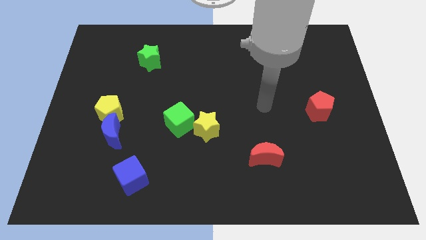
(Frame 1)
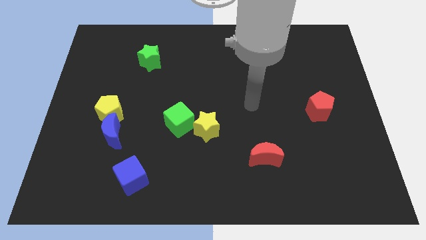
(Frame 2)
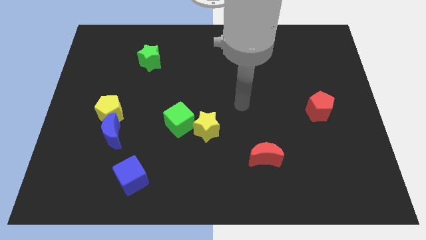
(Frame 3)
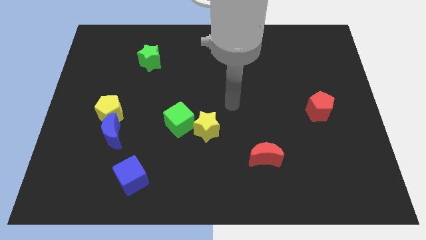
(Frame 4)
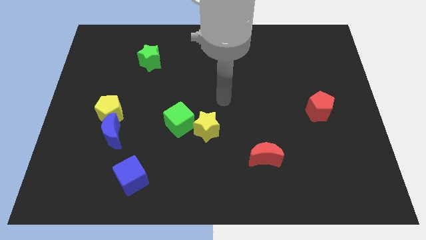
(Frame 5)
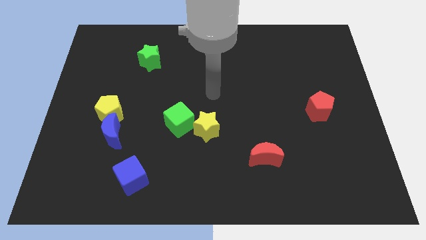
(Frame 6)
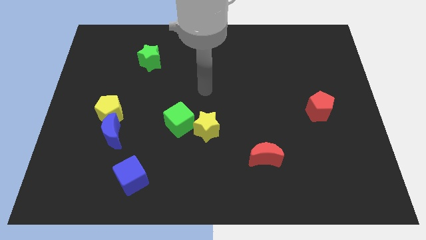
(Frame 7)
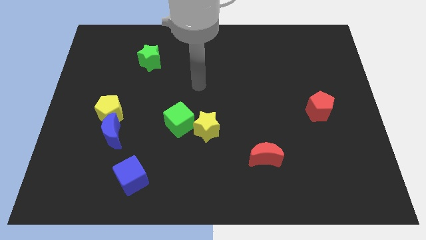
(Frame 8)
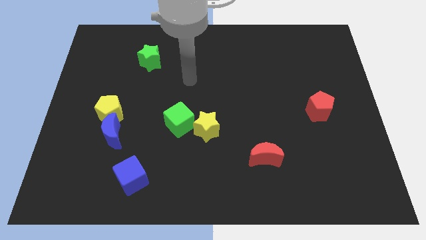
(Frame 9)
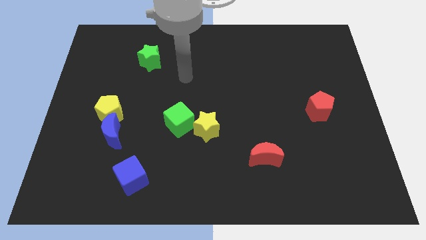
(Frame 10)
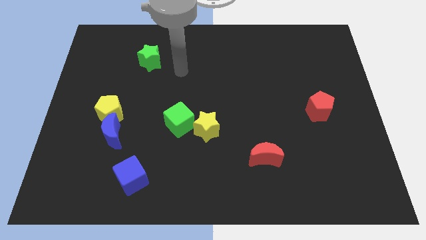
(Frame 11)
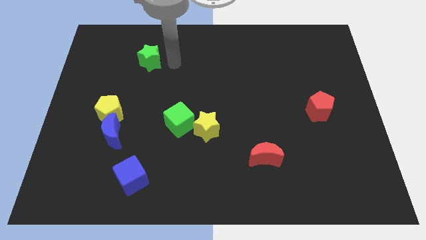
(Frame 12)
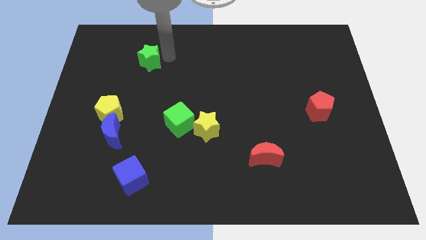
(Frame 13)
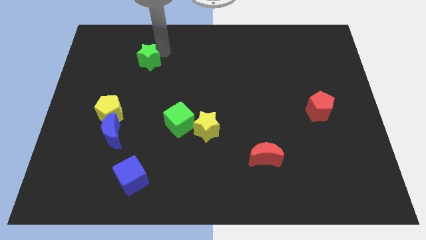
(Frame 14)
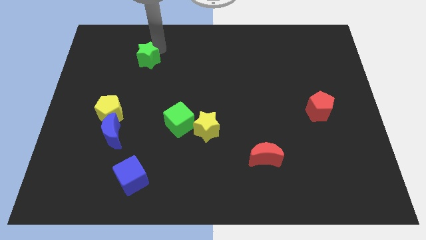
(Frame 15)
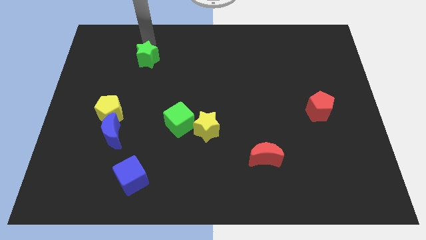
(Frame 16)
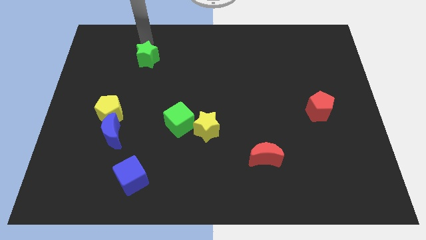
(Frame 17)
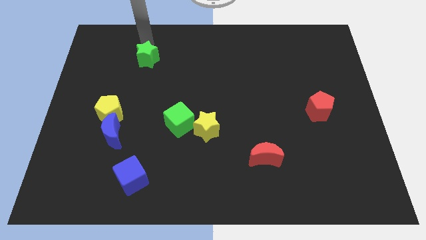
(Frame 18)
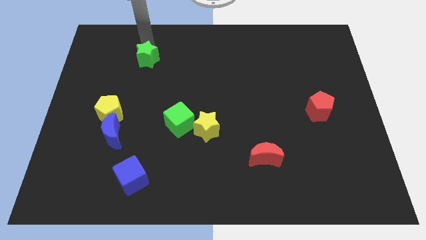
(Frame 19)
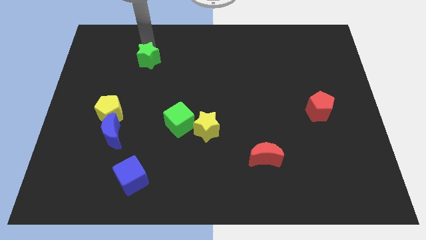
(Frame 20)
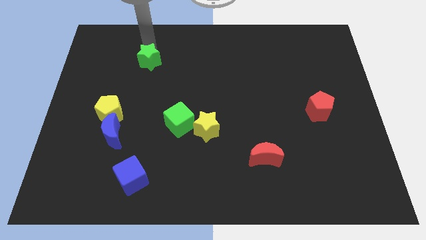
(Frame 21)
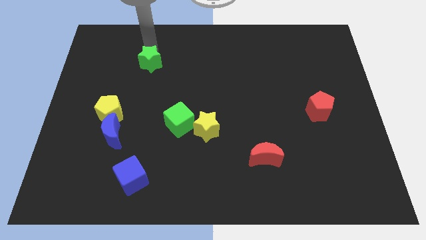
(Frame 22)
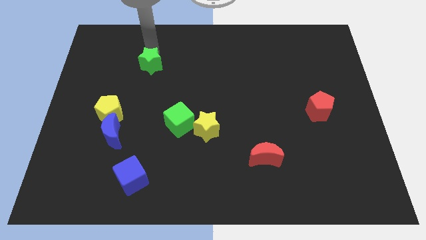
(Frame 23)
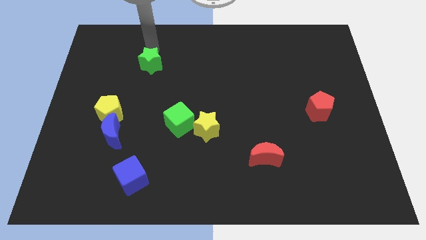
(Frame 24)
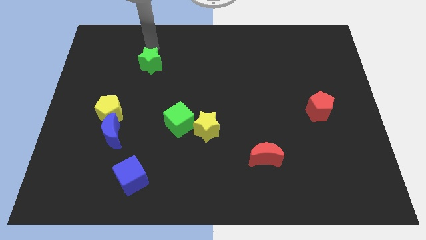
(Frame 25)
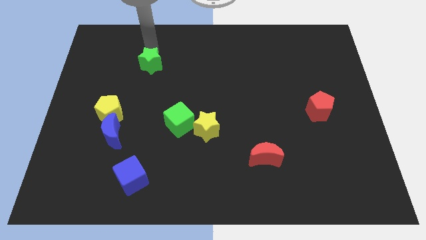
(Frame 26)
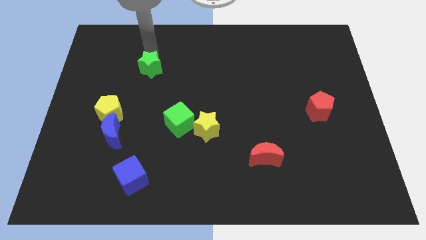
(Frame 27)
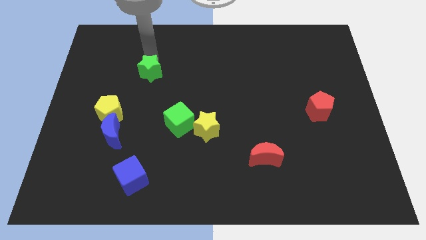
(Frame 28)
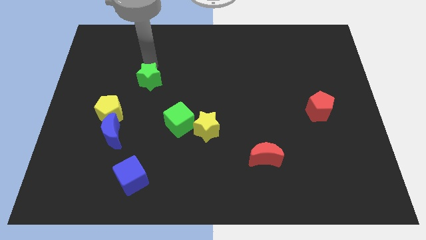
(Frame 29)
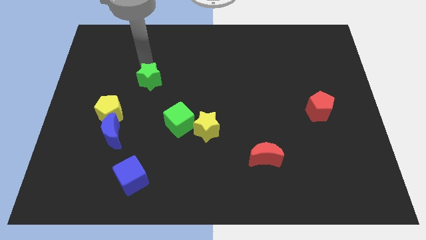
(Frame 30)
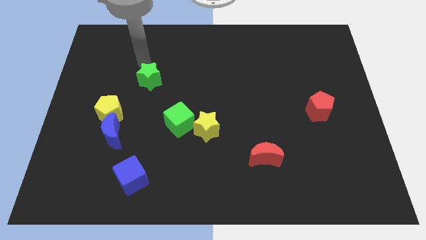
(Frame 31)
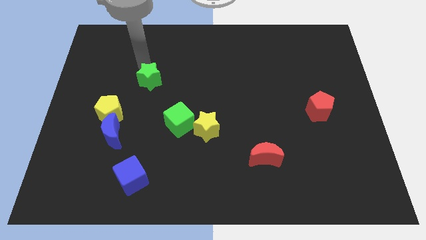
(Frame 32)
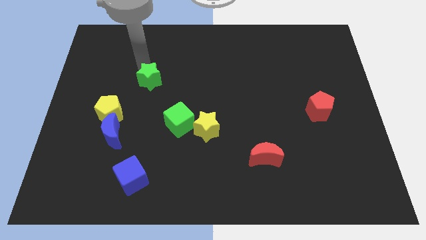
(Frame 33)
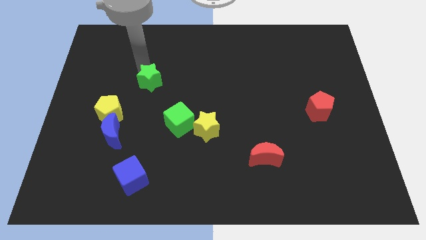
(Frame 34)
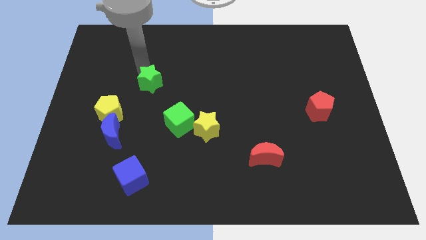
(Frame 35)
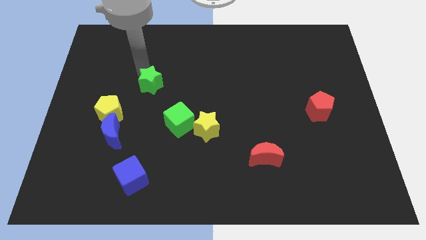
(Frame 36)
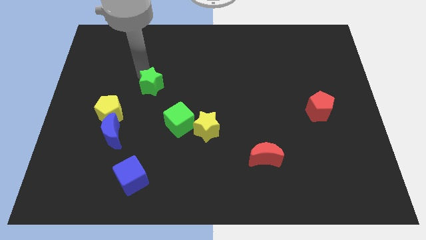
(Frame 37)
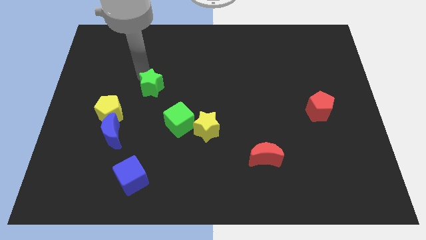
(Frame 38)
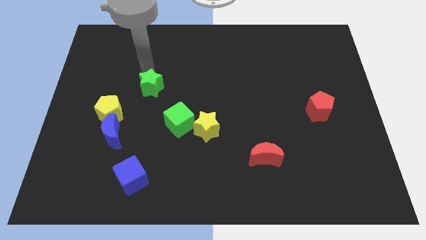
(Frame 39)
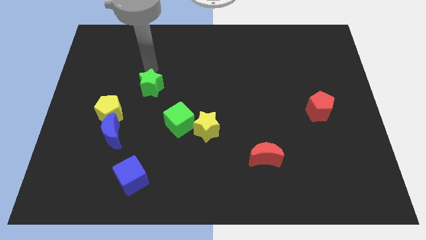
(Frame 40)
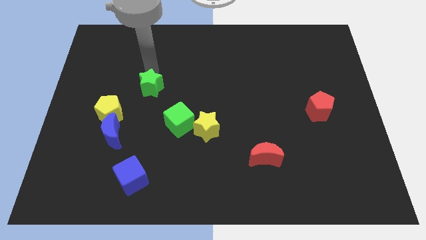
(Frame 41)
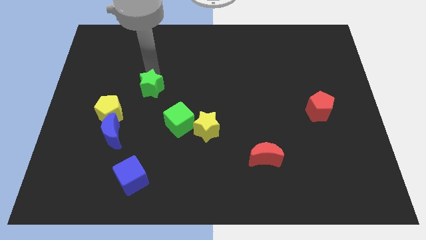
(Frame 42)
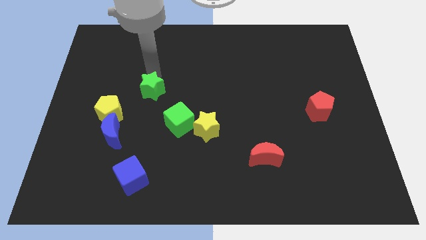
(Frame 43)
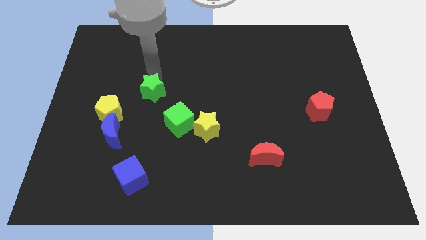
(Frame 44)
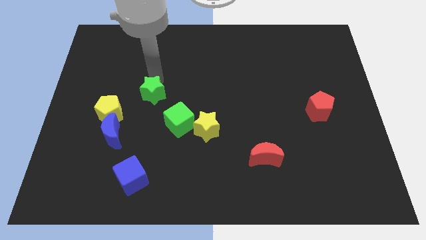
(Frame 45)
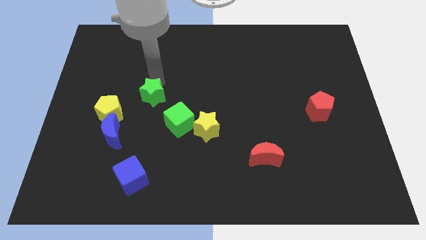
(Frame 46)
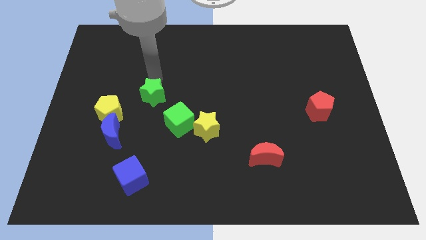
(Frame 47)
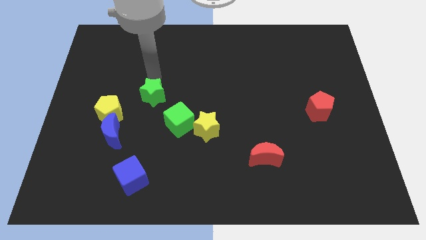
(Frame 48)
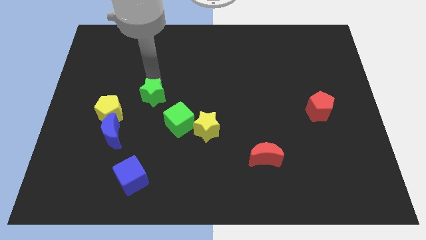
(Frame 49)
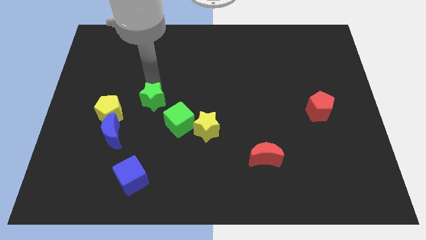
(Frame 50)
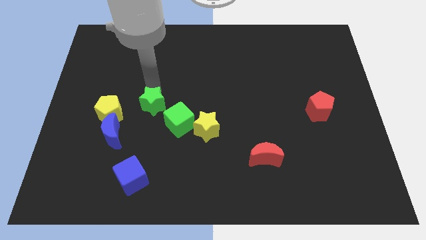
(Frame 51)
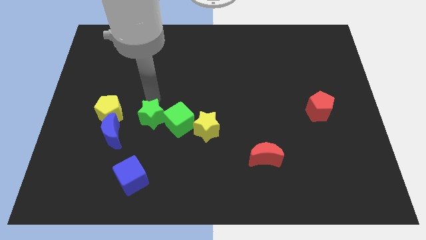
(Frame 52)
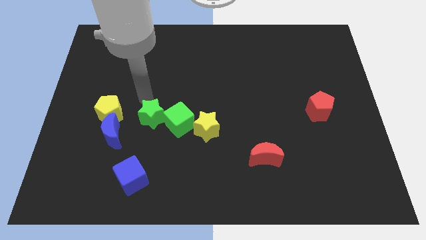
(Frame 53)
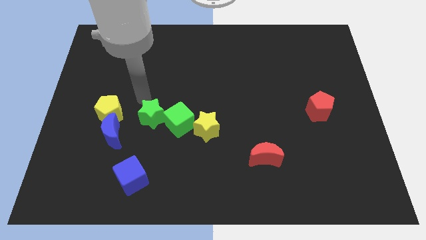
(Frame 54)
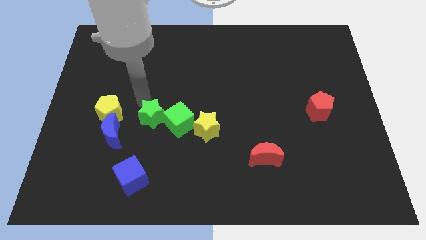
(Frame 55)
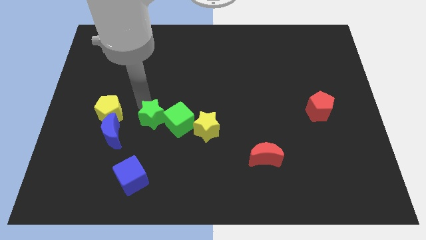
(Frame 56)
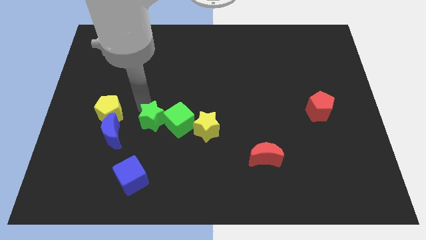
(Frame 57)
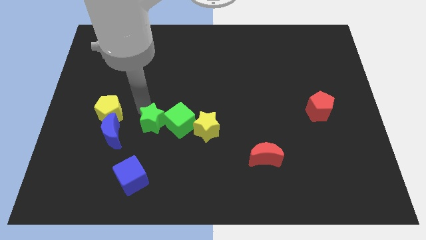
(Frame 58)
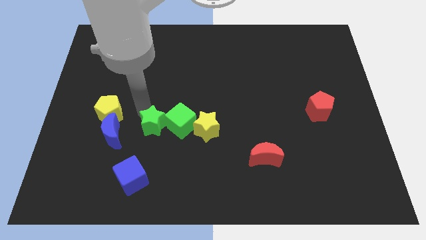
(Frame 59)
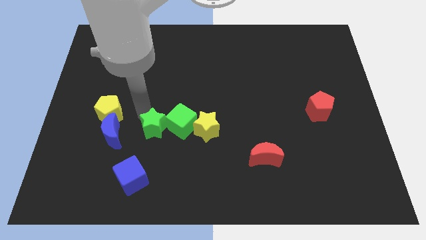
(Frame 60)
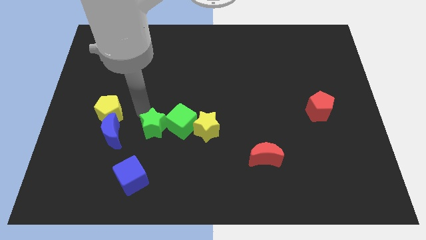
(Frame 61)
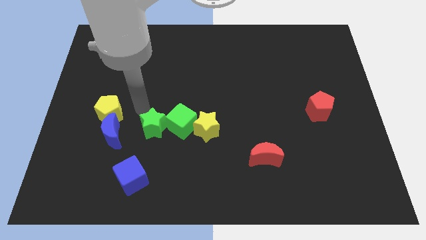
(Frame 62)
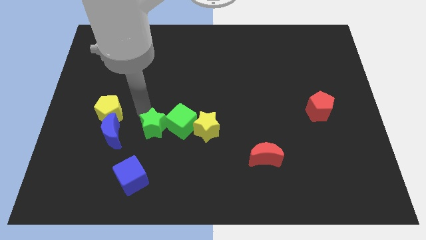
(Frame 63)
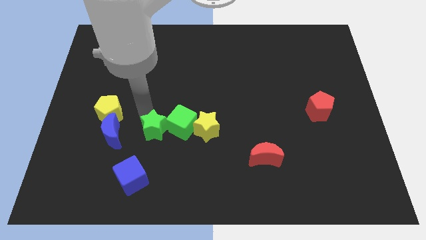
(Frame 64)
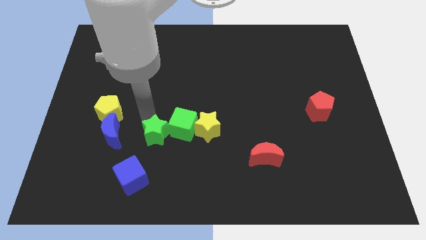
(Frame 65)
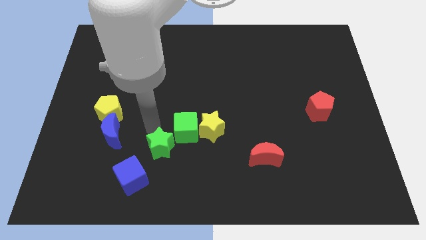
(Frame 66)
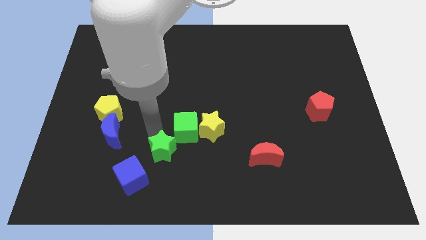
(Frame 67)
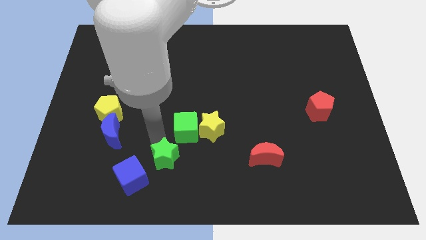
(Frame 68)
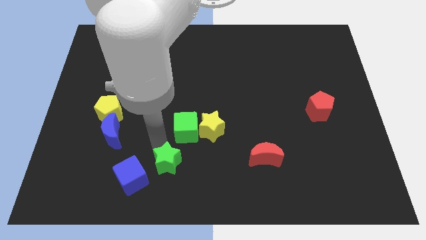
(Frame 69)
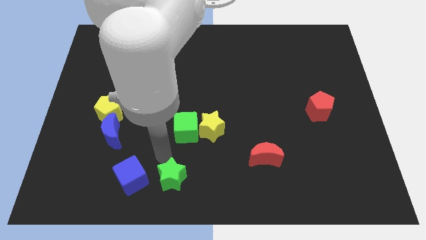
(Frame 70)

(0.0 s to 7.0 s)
push the green star to the bottom
